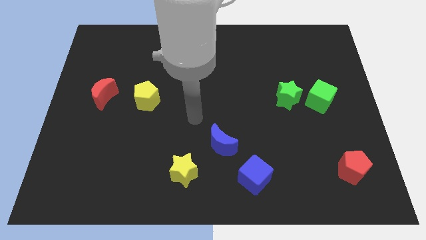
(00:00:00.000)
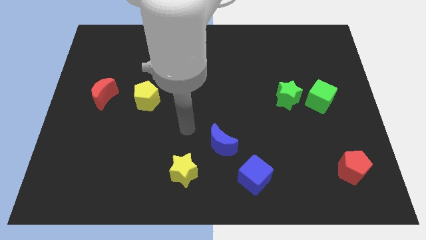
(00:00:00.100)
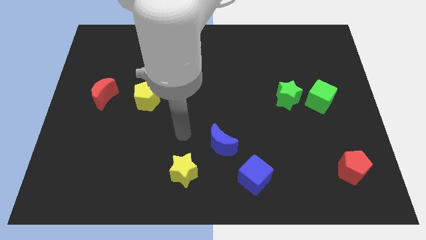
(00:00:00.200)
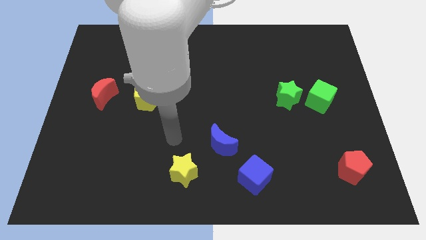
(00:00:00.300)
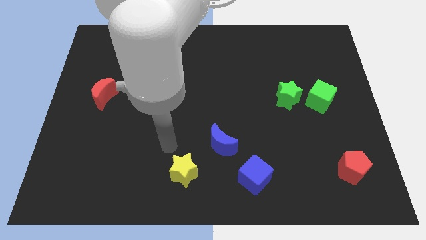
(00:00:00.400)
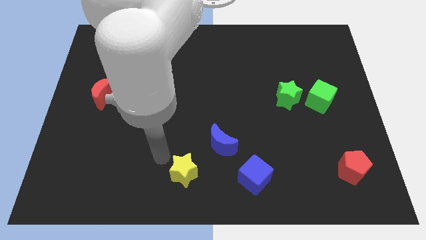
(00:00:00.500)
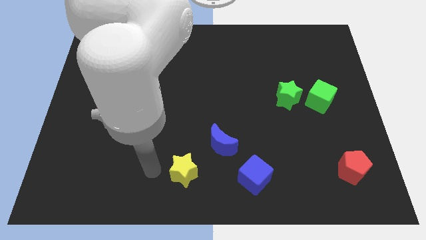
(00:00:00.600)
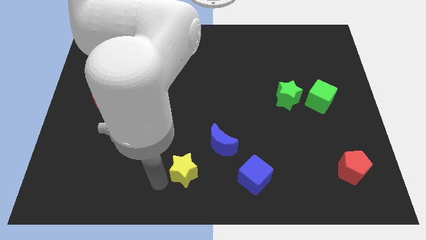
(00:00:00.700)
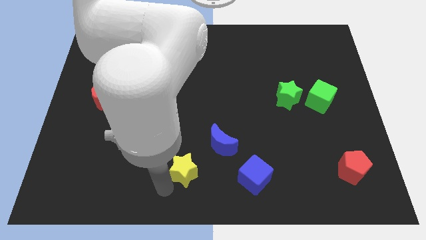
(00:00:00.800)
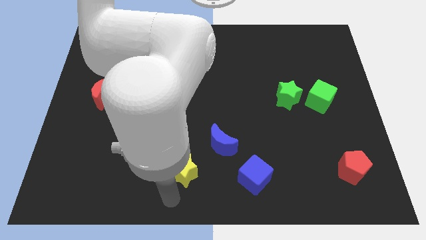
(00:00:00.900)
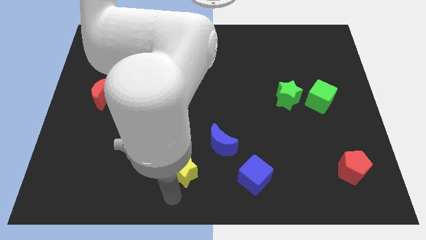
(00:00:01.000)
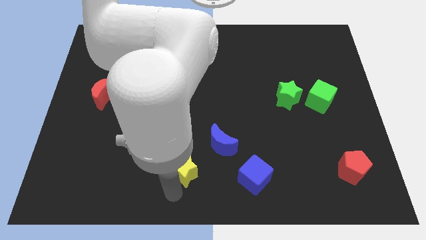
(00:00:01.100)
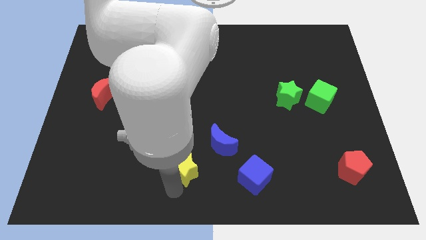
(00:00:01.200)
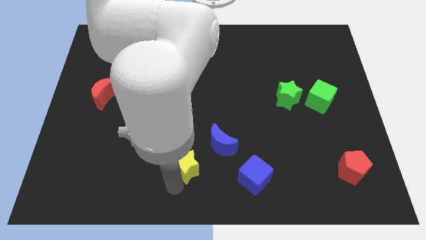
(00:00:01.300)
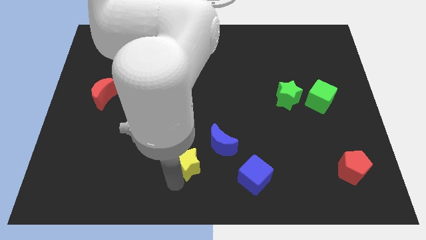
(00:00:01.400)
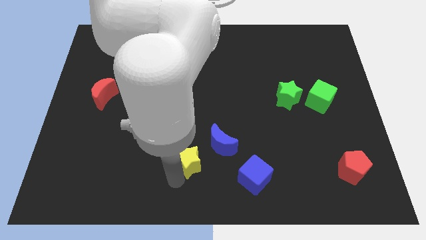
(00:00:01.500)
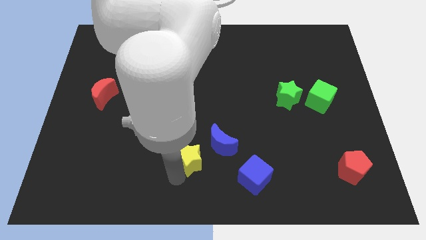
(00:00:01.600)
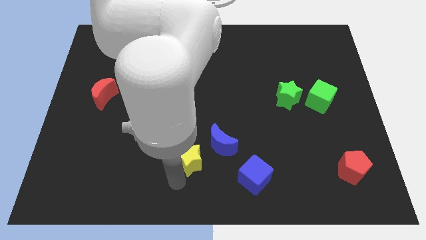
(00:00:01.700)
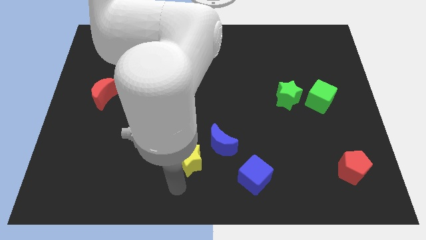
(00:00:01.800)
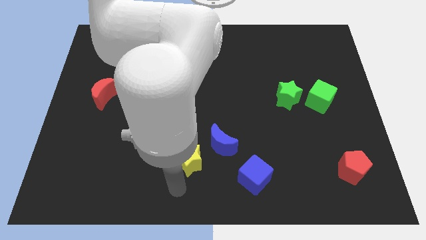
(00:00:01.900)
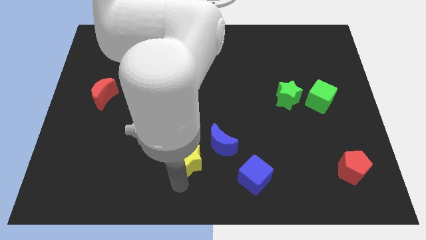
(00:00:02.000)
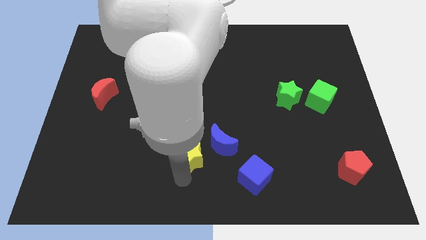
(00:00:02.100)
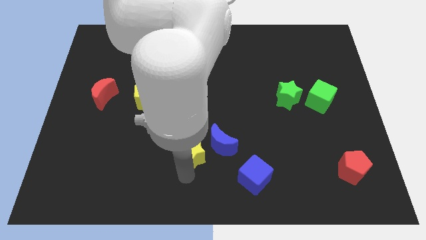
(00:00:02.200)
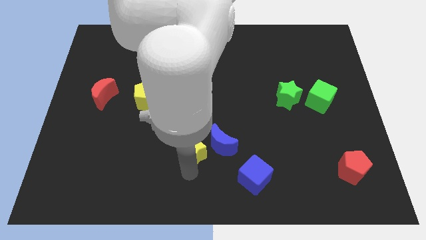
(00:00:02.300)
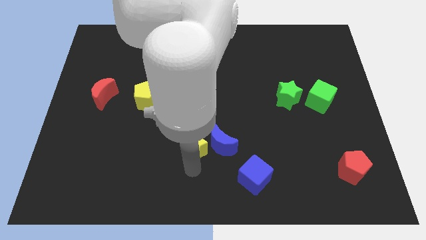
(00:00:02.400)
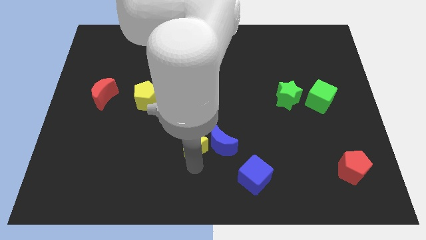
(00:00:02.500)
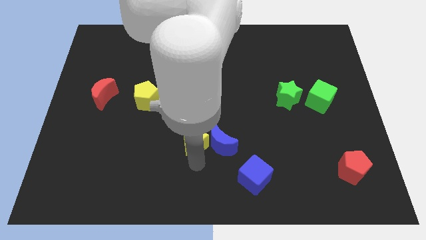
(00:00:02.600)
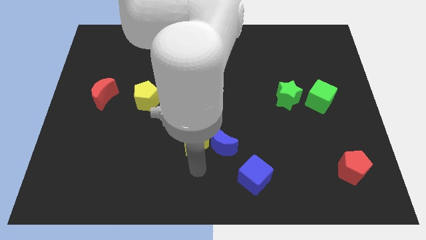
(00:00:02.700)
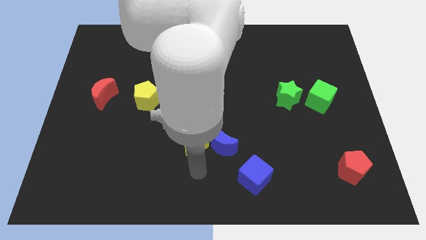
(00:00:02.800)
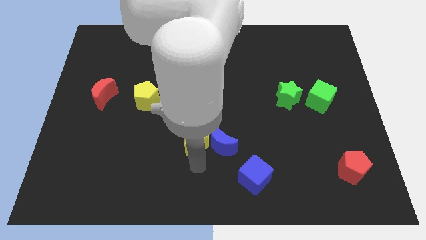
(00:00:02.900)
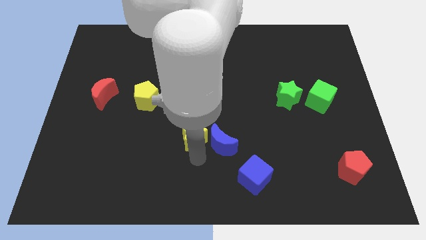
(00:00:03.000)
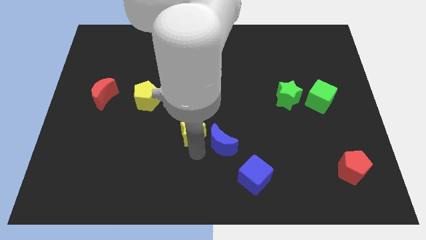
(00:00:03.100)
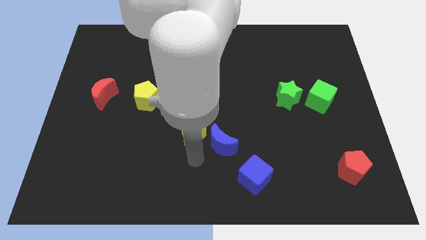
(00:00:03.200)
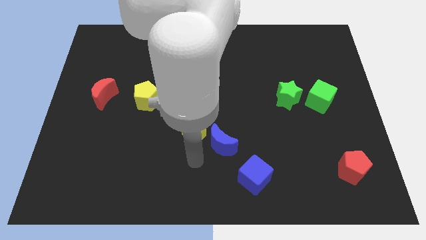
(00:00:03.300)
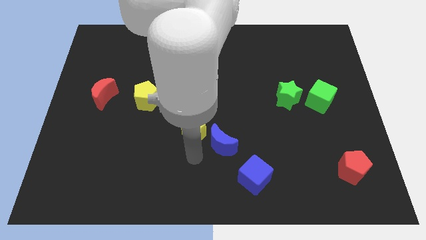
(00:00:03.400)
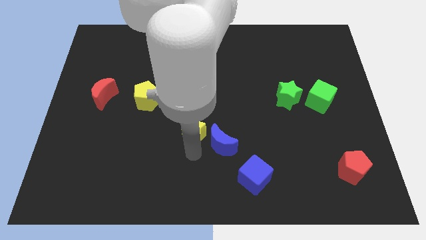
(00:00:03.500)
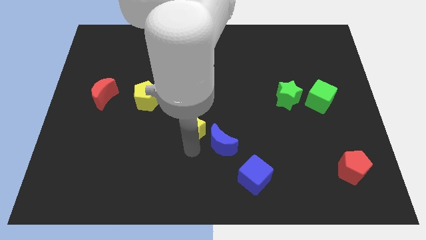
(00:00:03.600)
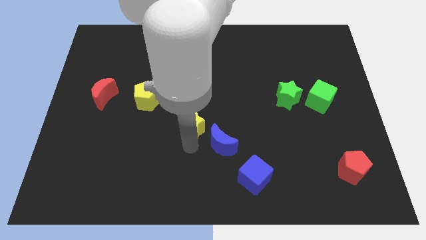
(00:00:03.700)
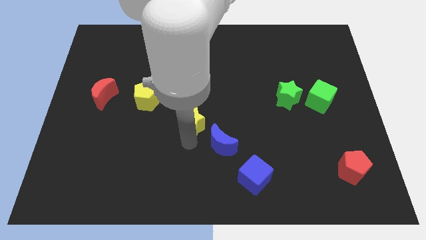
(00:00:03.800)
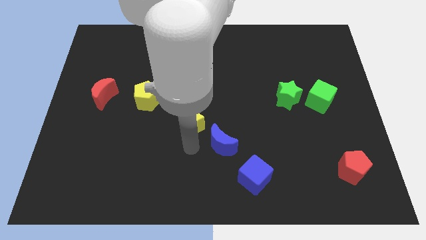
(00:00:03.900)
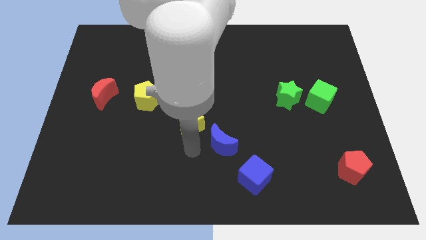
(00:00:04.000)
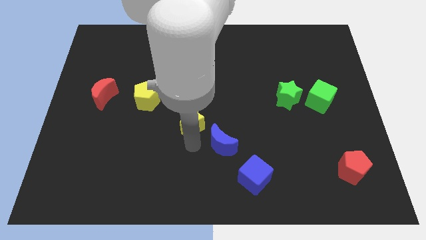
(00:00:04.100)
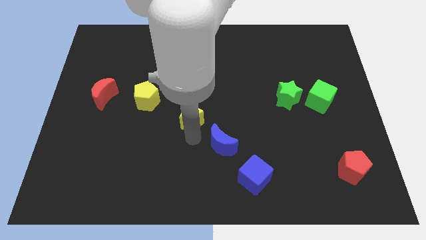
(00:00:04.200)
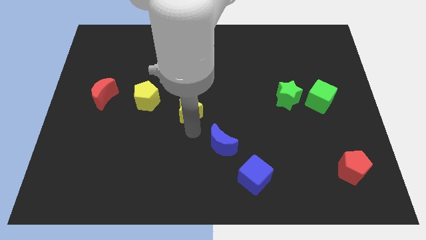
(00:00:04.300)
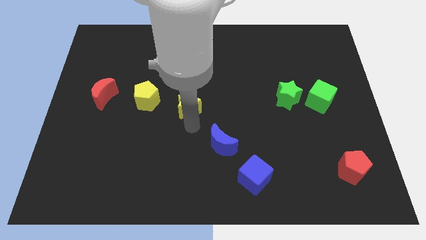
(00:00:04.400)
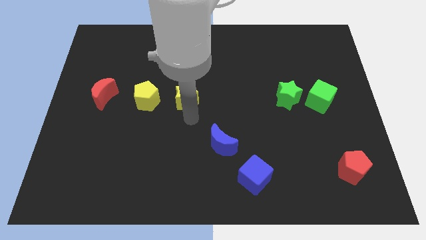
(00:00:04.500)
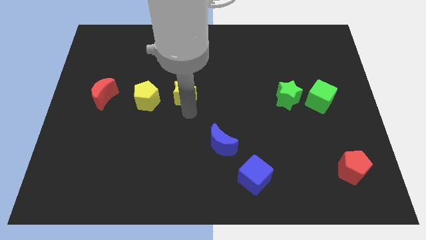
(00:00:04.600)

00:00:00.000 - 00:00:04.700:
move the yellow star up

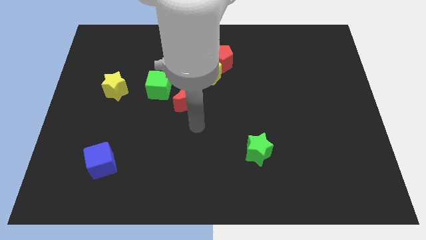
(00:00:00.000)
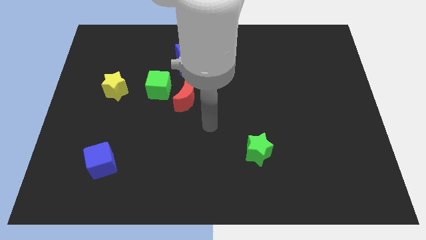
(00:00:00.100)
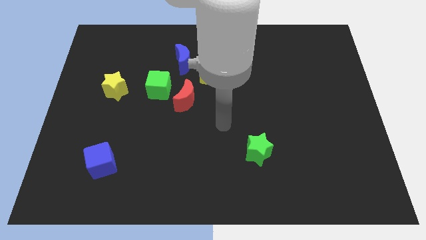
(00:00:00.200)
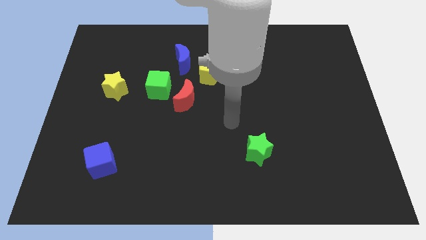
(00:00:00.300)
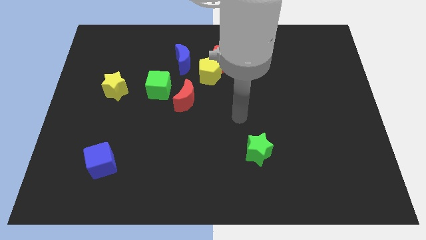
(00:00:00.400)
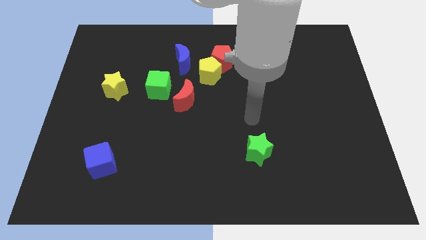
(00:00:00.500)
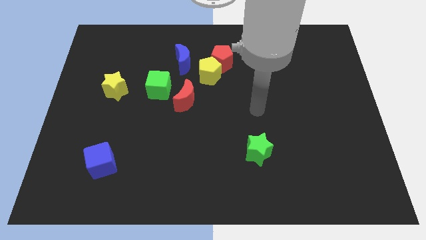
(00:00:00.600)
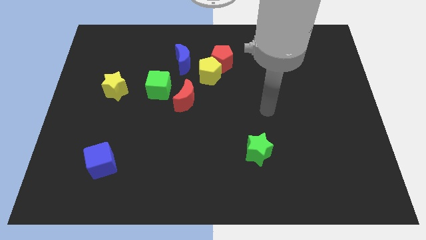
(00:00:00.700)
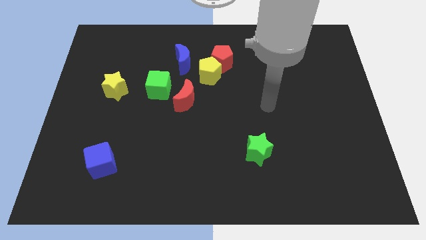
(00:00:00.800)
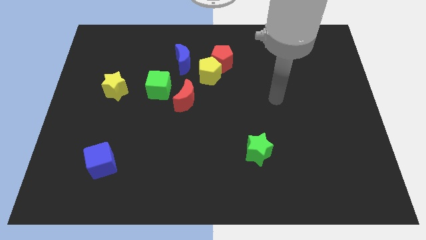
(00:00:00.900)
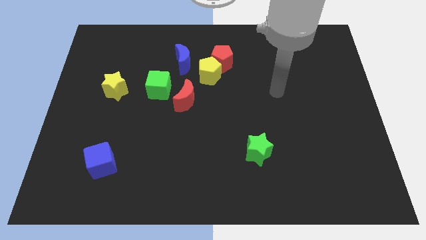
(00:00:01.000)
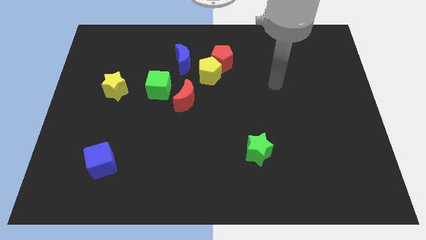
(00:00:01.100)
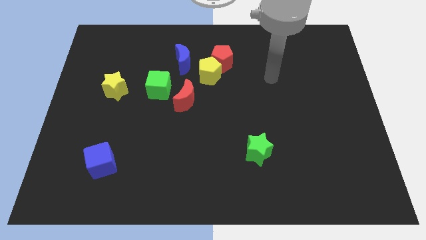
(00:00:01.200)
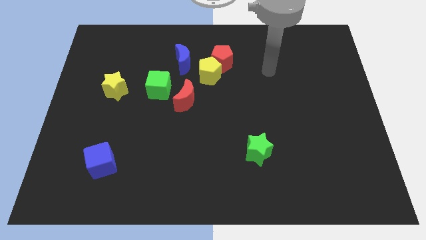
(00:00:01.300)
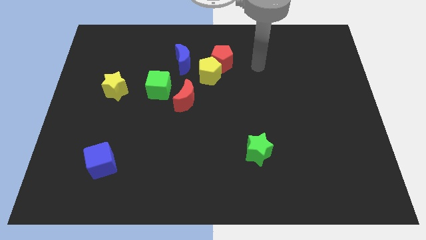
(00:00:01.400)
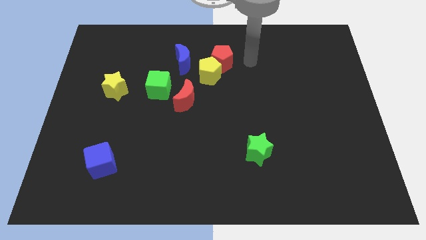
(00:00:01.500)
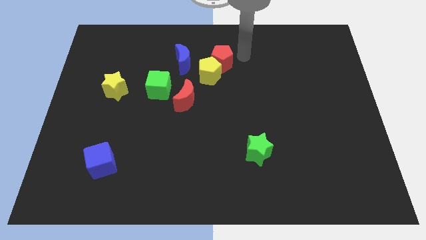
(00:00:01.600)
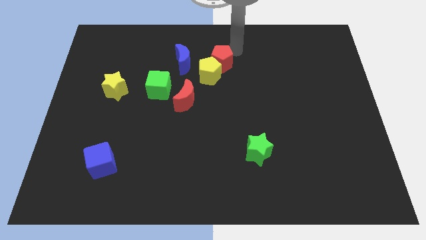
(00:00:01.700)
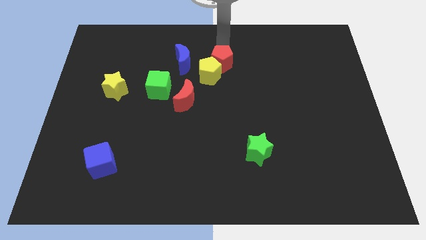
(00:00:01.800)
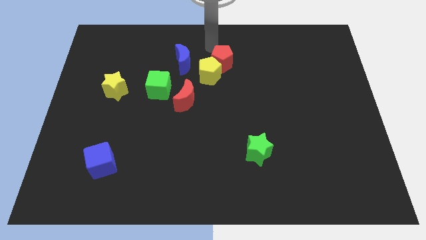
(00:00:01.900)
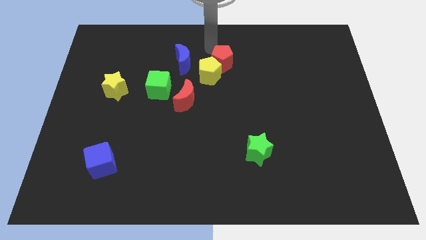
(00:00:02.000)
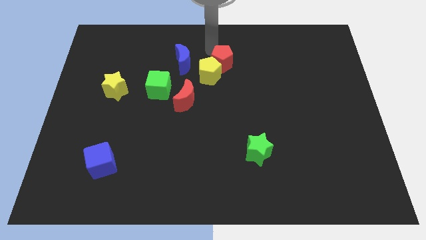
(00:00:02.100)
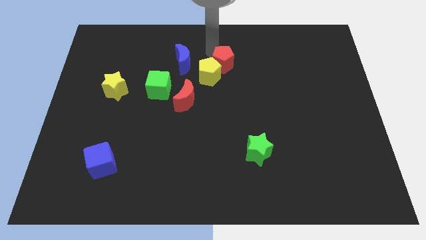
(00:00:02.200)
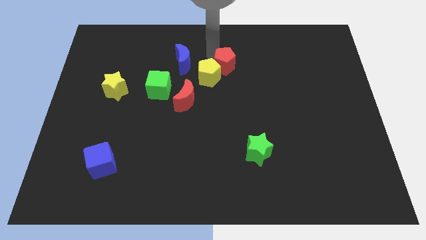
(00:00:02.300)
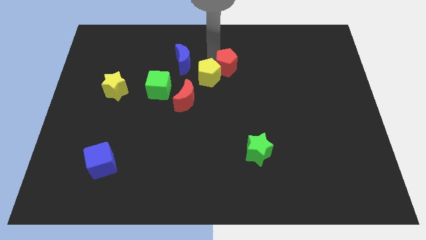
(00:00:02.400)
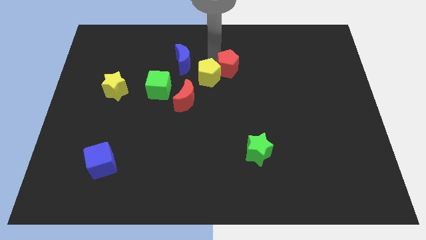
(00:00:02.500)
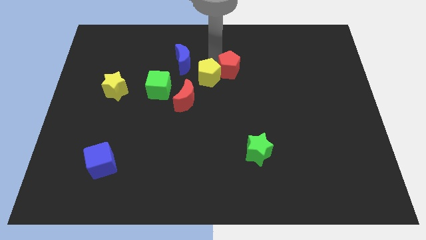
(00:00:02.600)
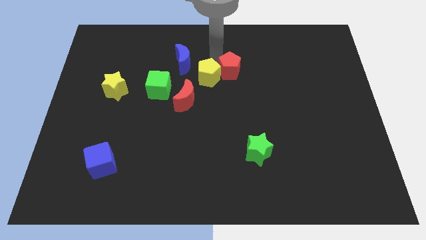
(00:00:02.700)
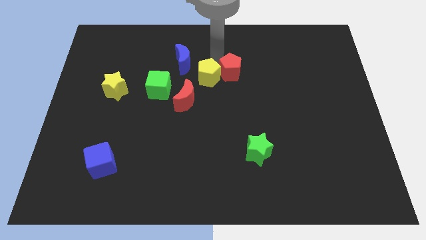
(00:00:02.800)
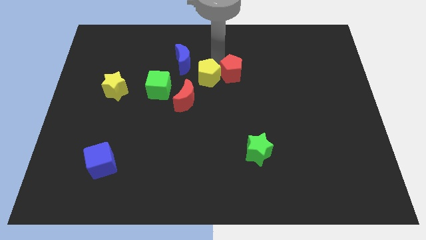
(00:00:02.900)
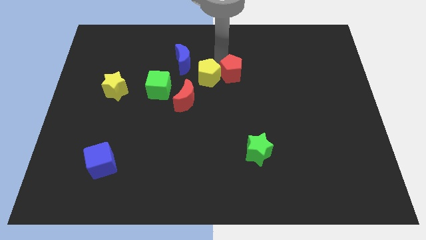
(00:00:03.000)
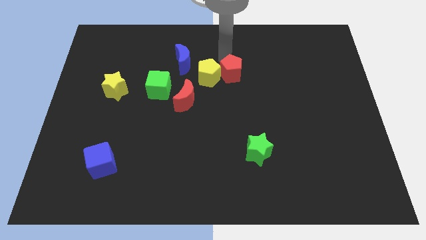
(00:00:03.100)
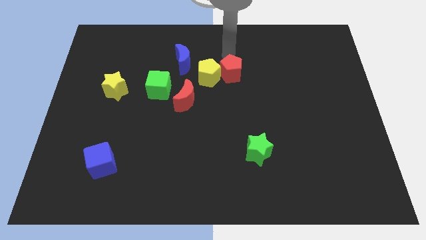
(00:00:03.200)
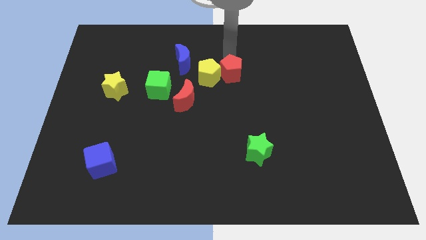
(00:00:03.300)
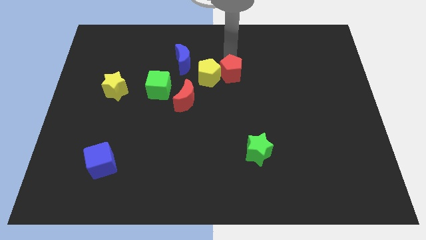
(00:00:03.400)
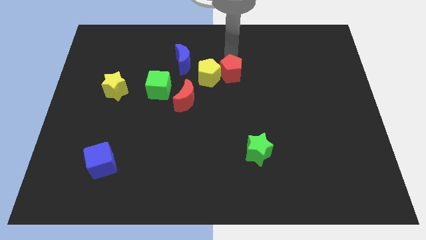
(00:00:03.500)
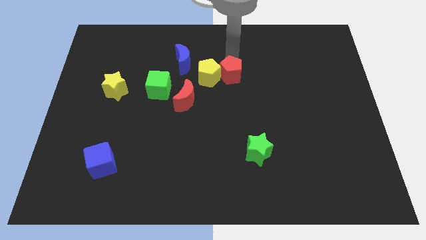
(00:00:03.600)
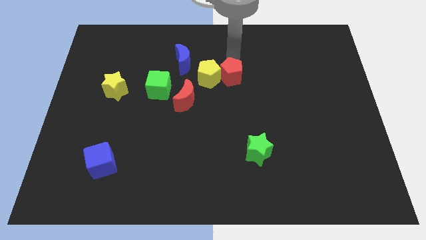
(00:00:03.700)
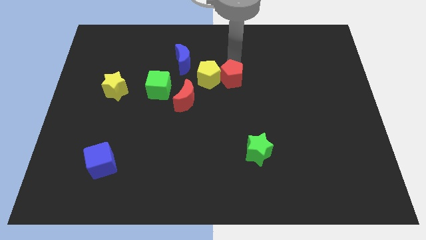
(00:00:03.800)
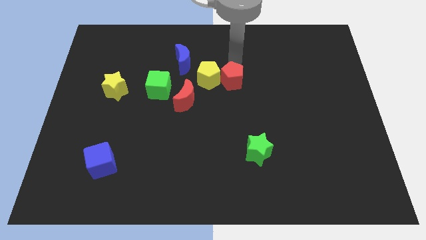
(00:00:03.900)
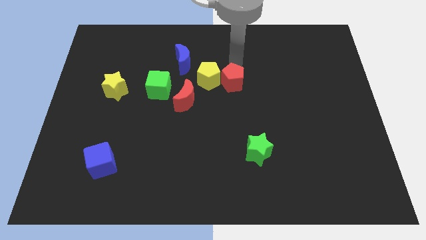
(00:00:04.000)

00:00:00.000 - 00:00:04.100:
slide the red pentagon down somewhat
